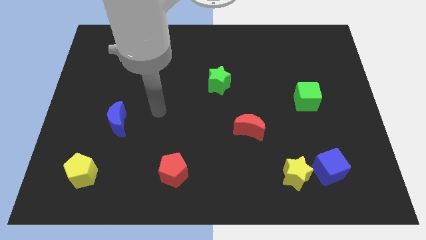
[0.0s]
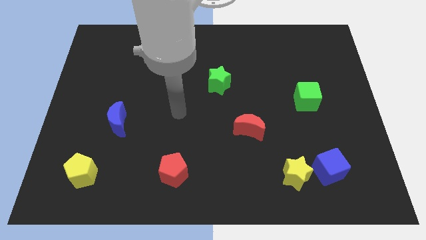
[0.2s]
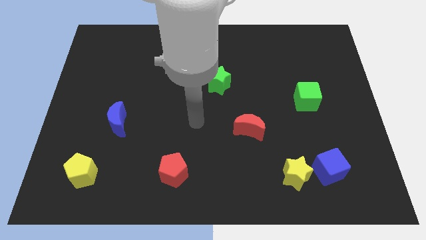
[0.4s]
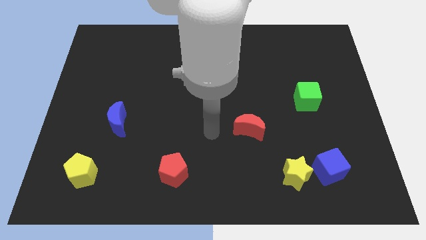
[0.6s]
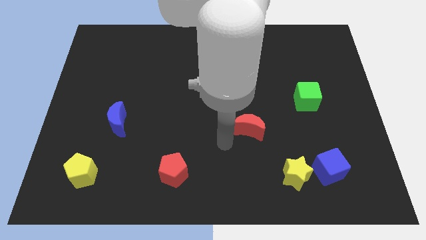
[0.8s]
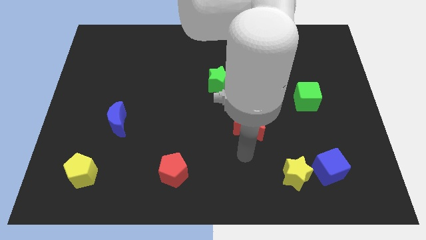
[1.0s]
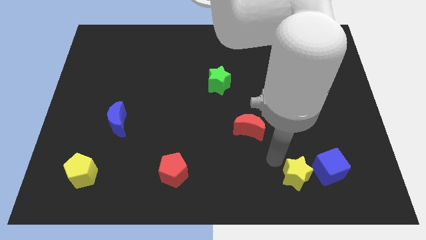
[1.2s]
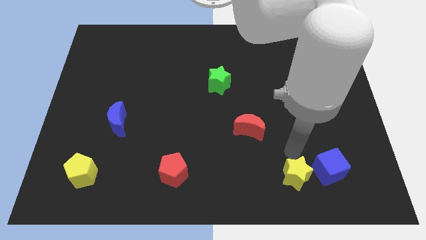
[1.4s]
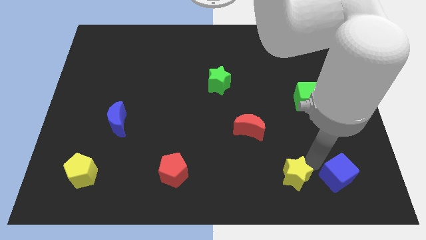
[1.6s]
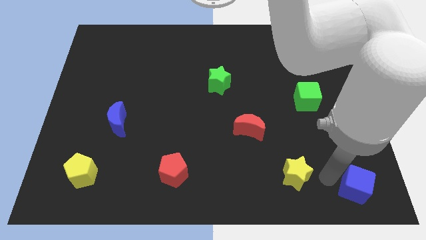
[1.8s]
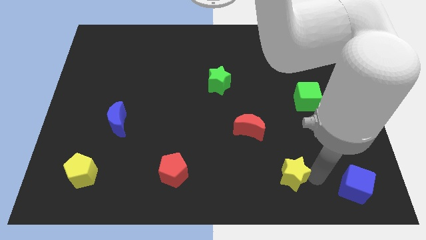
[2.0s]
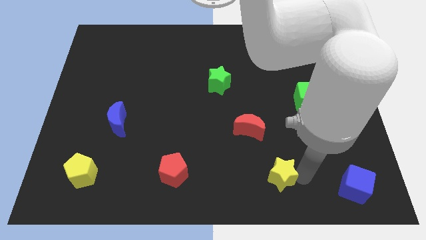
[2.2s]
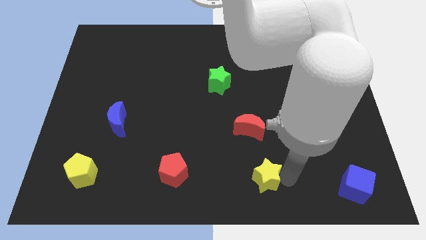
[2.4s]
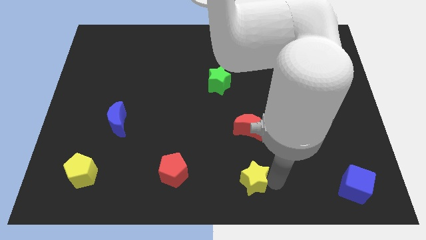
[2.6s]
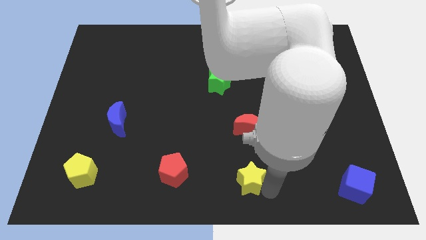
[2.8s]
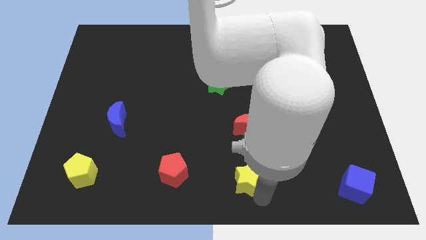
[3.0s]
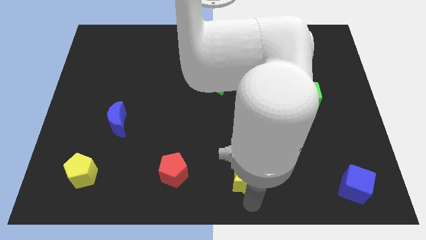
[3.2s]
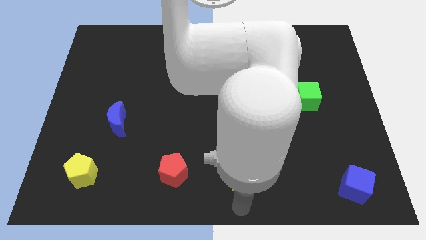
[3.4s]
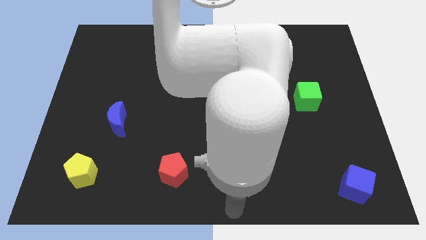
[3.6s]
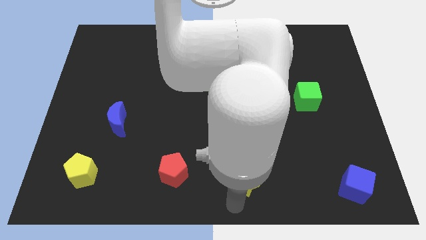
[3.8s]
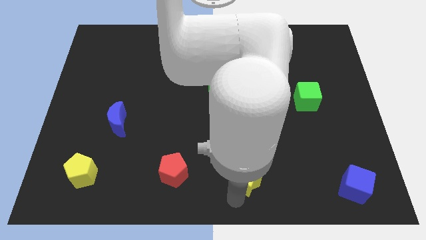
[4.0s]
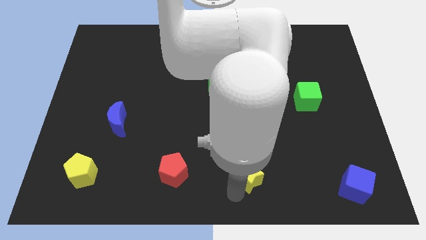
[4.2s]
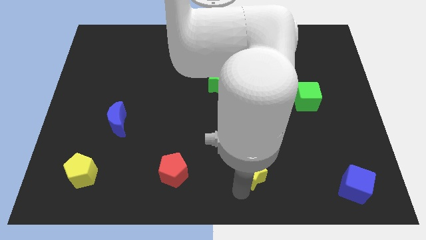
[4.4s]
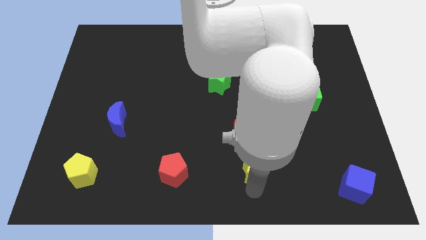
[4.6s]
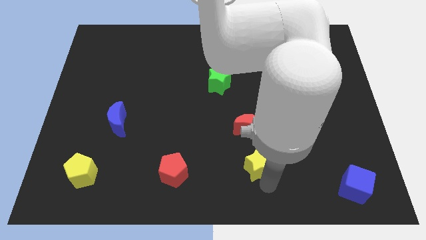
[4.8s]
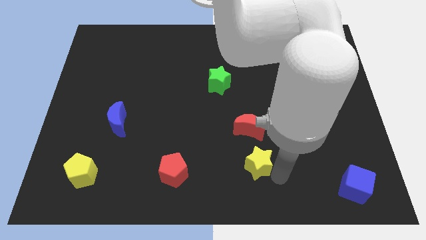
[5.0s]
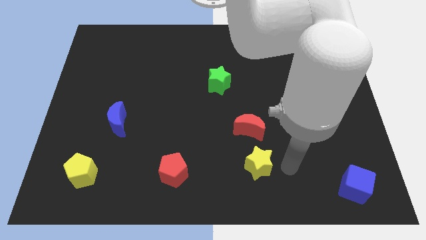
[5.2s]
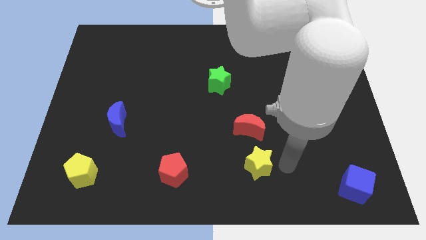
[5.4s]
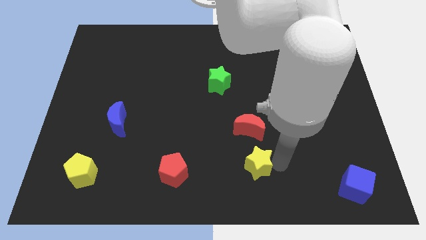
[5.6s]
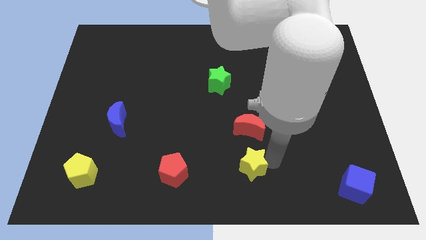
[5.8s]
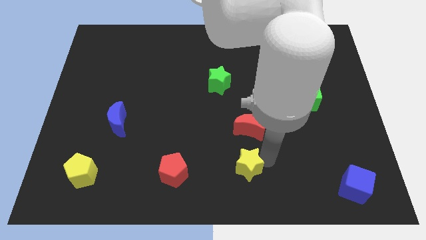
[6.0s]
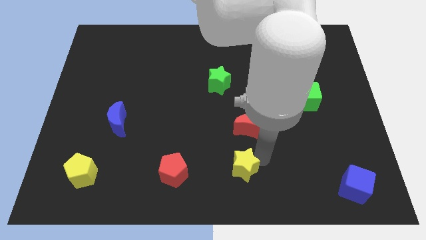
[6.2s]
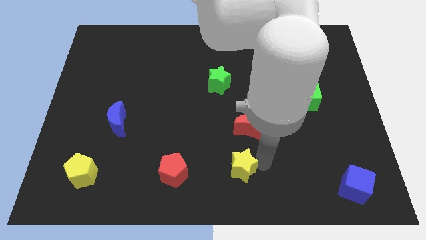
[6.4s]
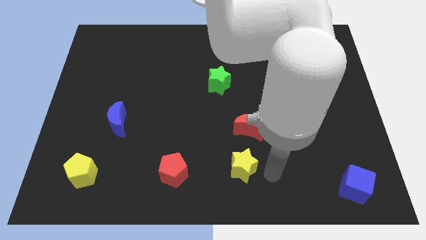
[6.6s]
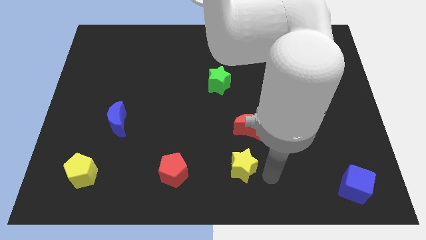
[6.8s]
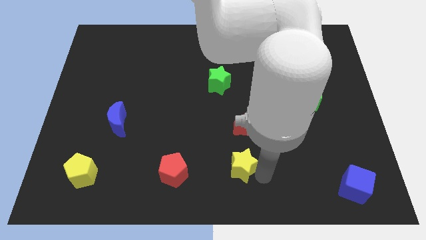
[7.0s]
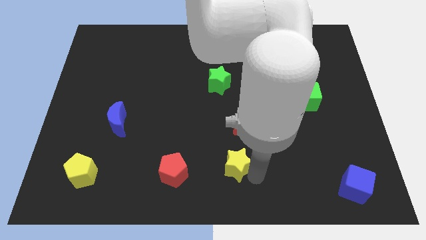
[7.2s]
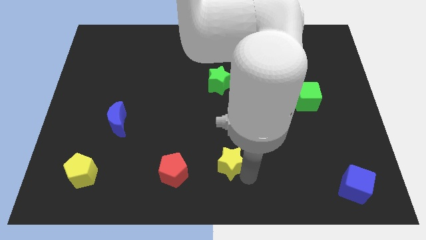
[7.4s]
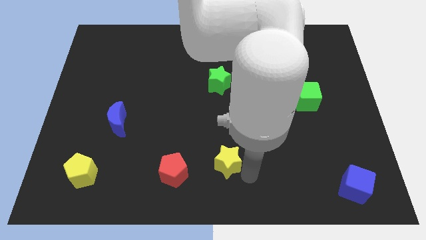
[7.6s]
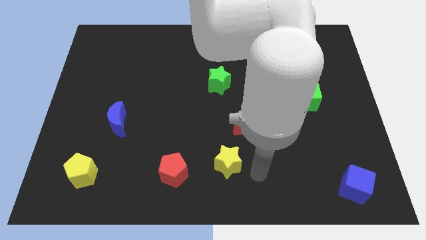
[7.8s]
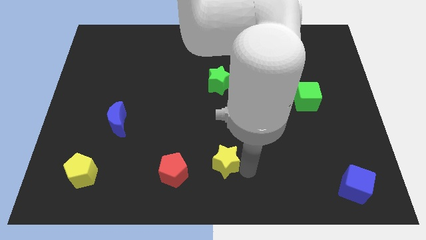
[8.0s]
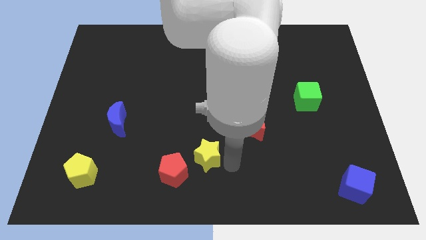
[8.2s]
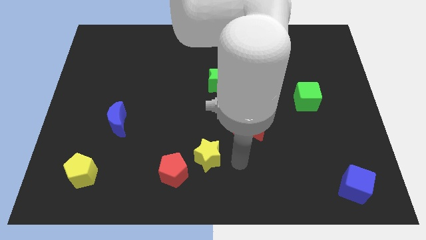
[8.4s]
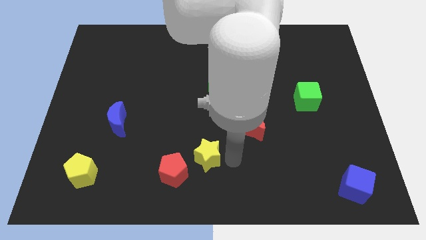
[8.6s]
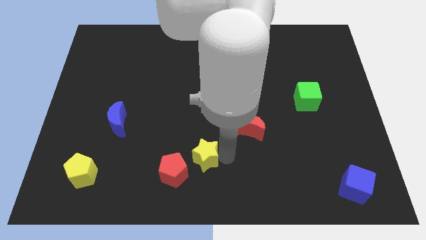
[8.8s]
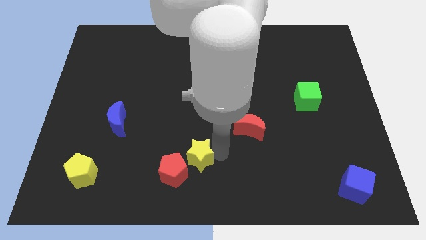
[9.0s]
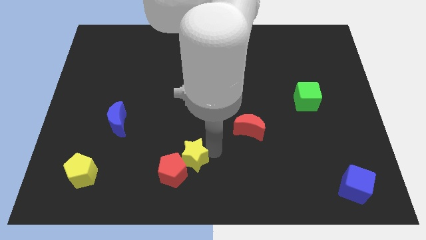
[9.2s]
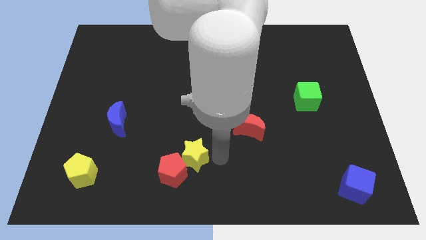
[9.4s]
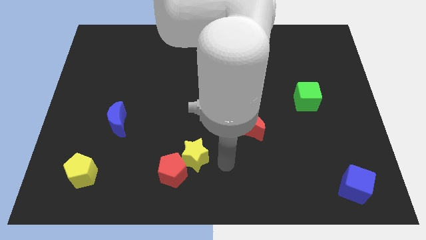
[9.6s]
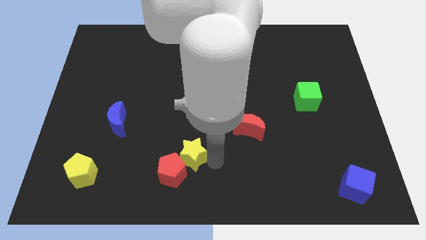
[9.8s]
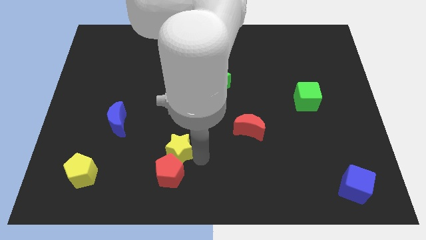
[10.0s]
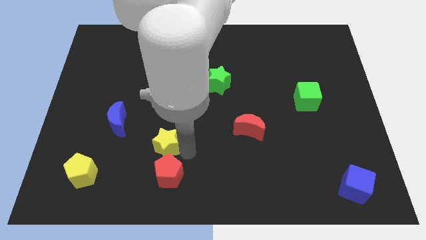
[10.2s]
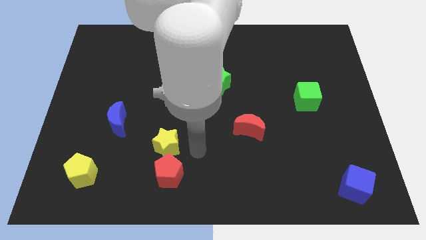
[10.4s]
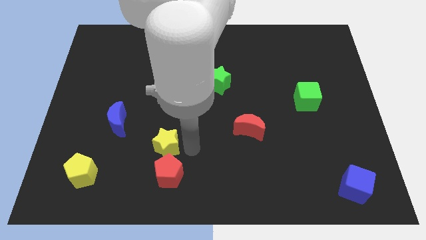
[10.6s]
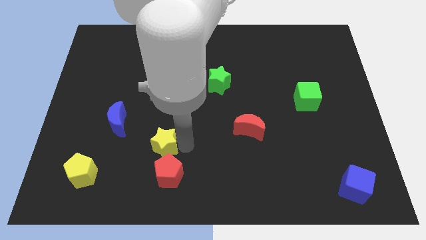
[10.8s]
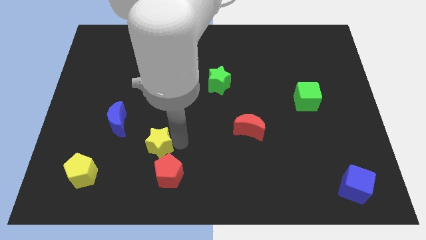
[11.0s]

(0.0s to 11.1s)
slide the yellow star to the bottom right of the blue moon

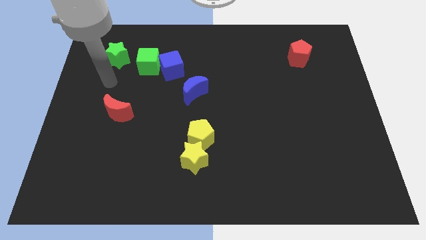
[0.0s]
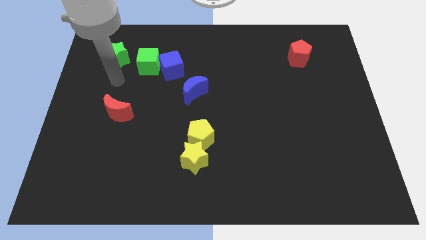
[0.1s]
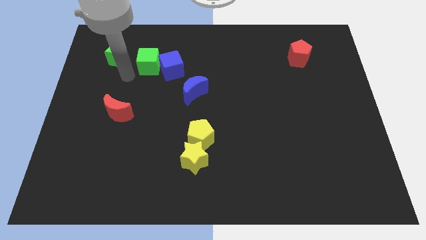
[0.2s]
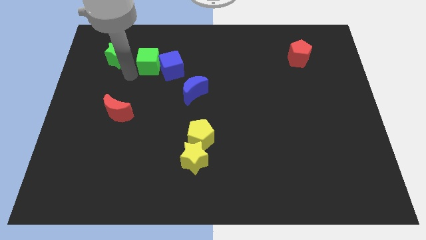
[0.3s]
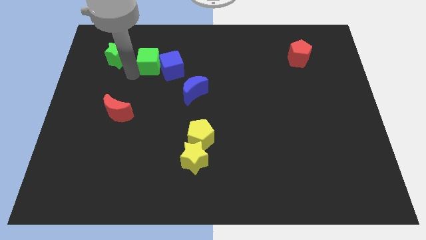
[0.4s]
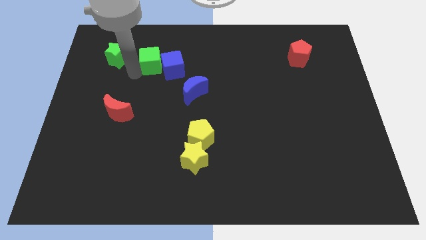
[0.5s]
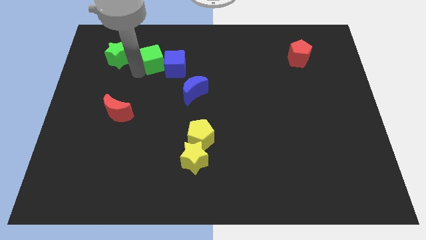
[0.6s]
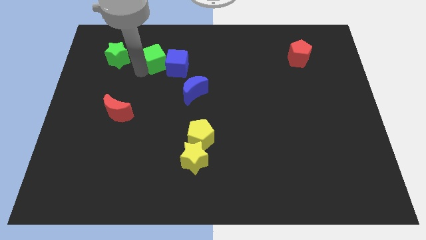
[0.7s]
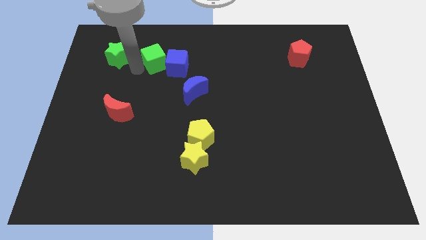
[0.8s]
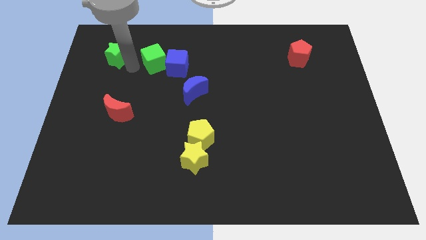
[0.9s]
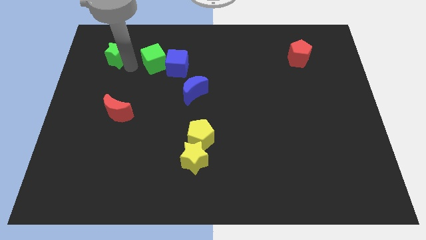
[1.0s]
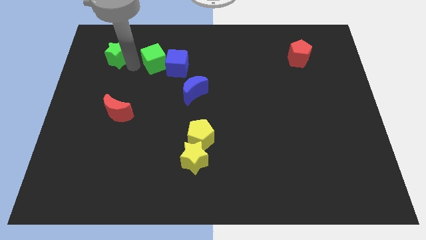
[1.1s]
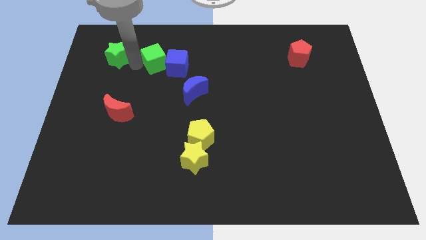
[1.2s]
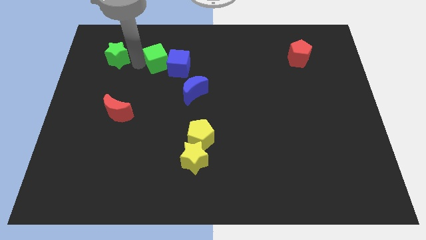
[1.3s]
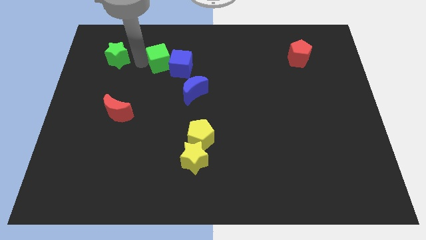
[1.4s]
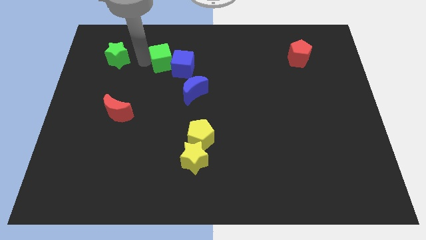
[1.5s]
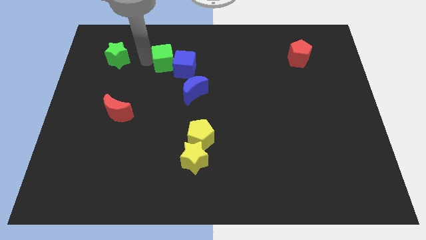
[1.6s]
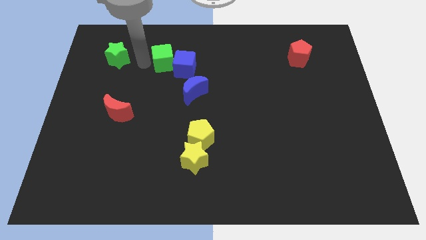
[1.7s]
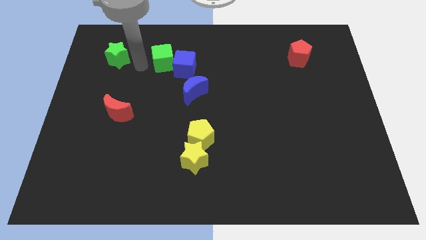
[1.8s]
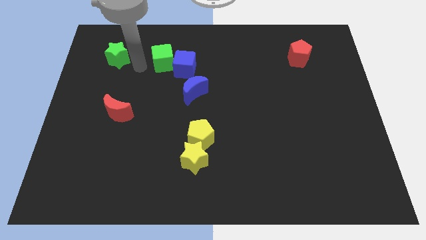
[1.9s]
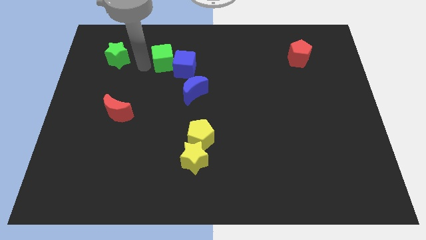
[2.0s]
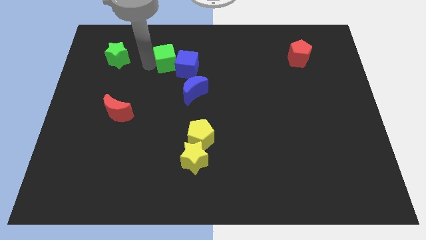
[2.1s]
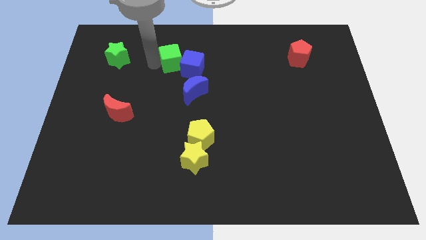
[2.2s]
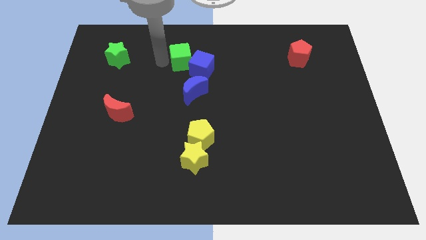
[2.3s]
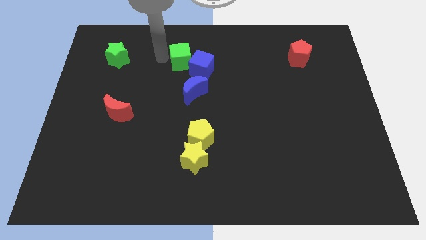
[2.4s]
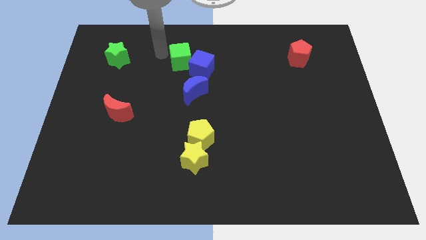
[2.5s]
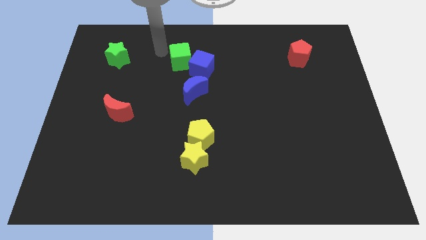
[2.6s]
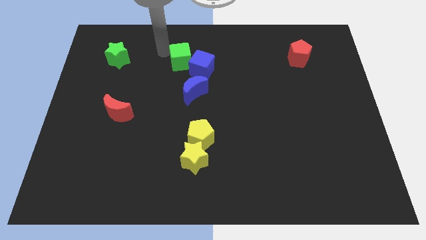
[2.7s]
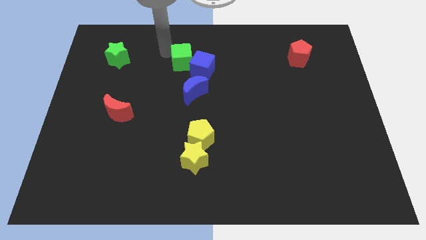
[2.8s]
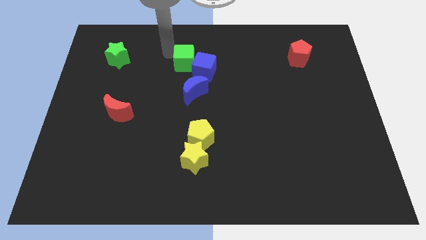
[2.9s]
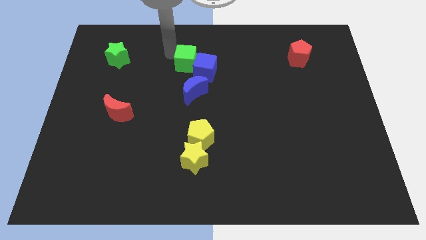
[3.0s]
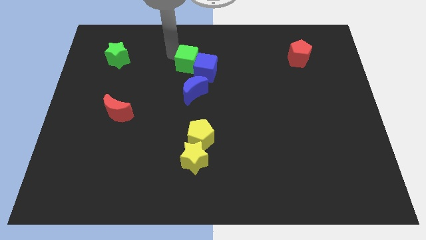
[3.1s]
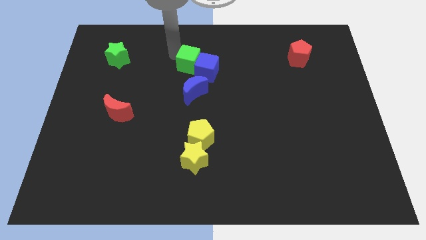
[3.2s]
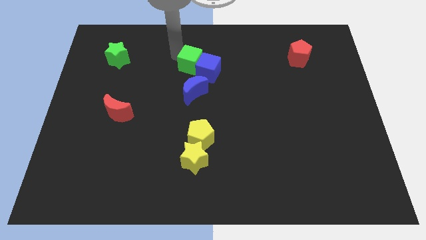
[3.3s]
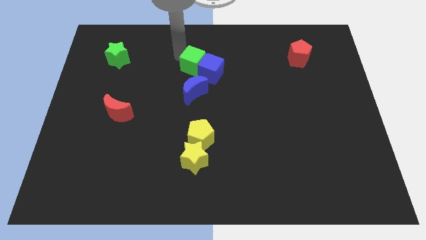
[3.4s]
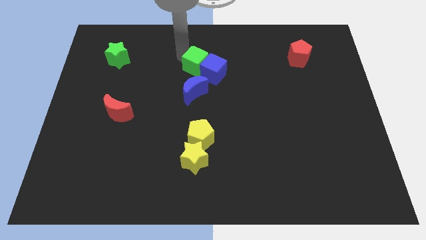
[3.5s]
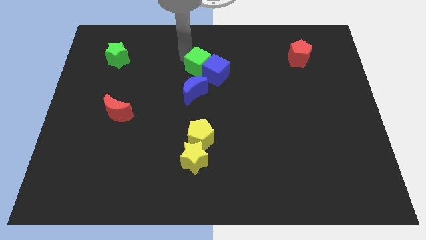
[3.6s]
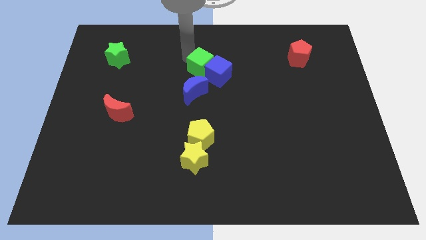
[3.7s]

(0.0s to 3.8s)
slide the green cube to the top right side of the blue moon
